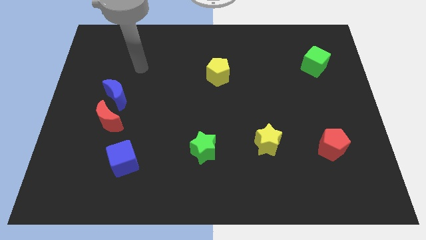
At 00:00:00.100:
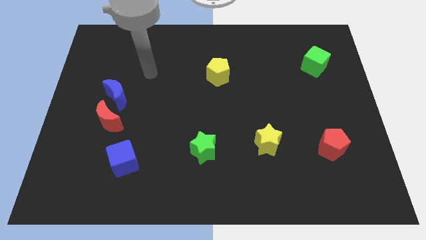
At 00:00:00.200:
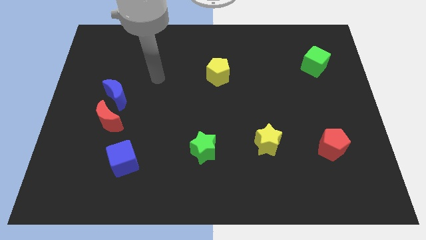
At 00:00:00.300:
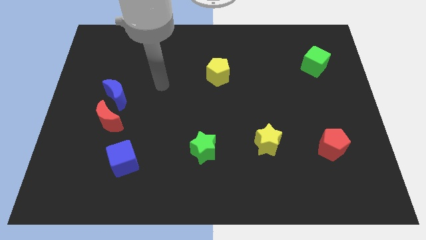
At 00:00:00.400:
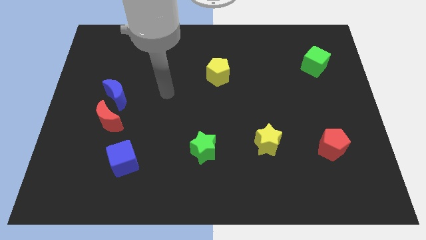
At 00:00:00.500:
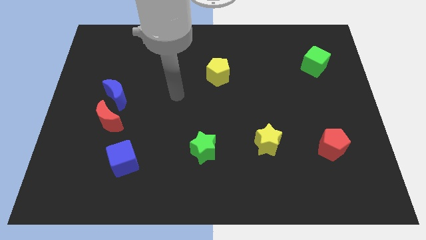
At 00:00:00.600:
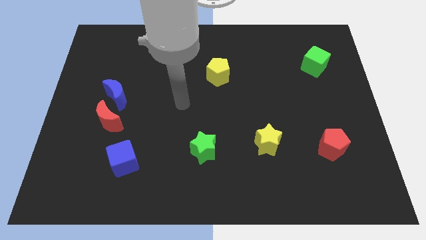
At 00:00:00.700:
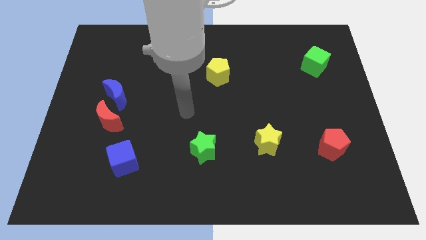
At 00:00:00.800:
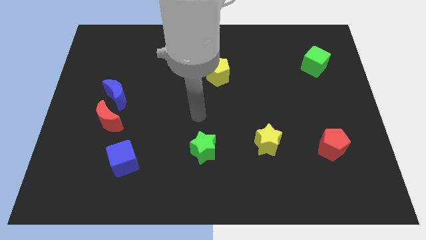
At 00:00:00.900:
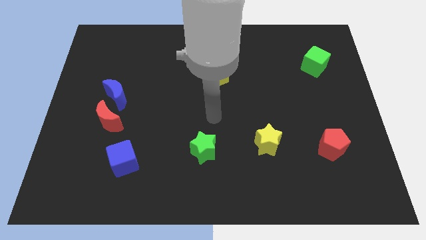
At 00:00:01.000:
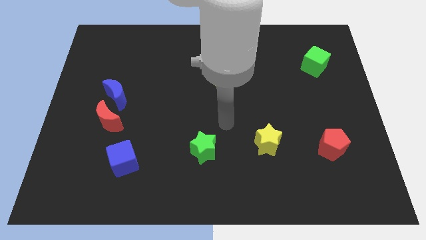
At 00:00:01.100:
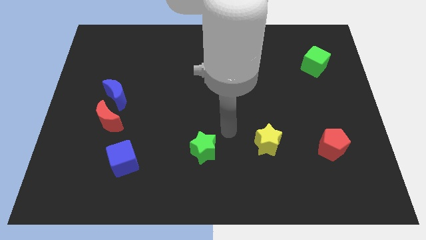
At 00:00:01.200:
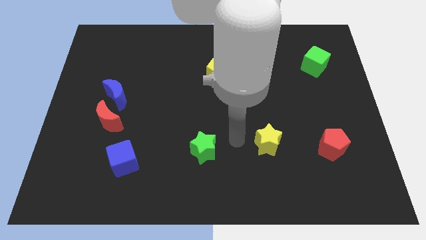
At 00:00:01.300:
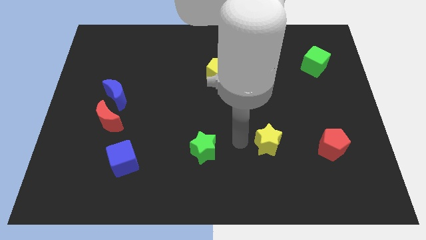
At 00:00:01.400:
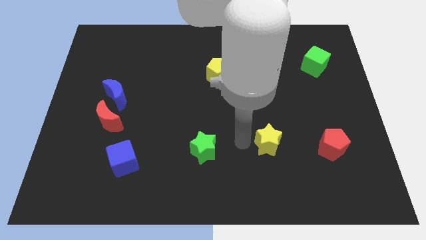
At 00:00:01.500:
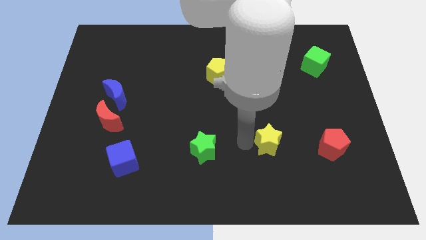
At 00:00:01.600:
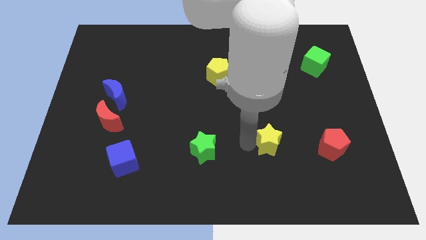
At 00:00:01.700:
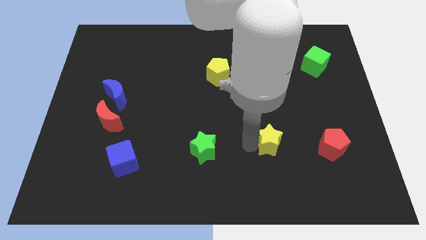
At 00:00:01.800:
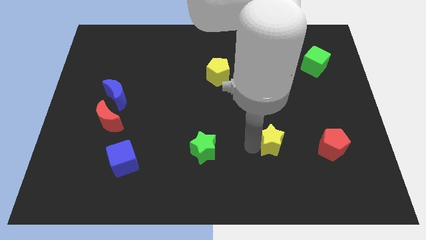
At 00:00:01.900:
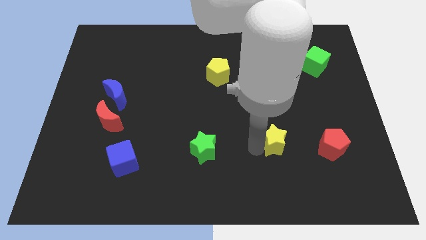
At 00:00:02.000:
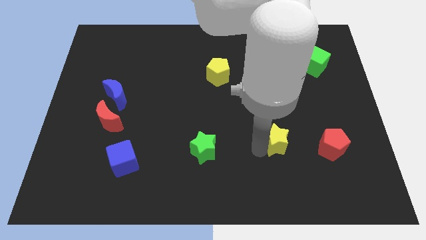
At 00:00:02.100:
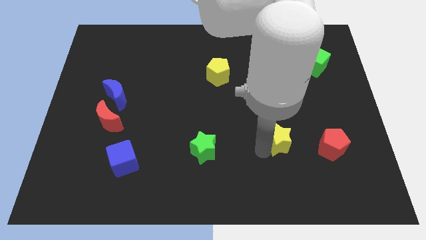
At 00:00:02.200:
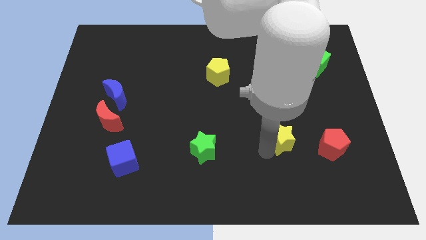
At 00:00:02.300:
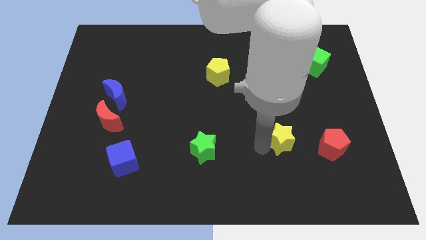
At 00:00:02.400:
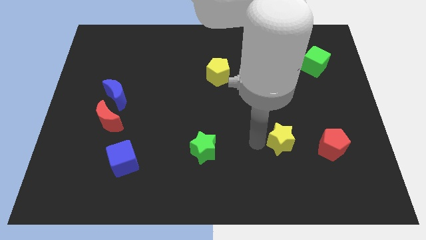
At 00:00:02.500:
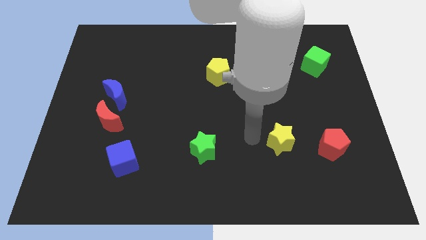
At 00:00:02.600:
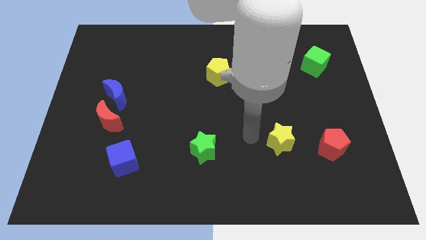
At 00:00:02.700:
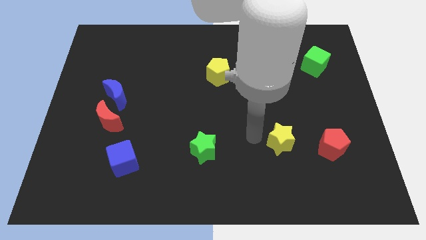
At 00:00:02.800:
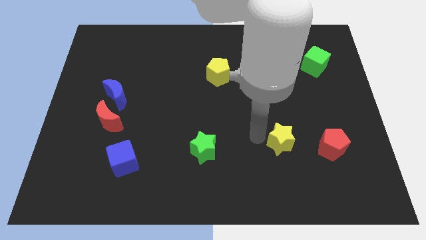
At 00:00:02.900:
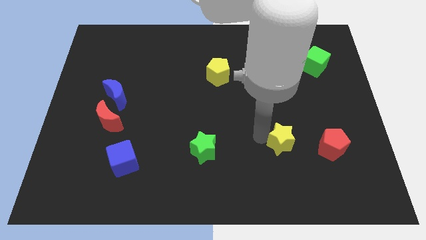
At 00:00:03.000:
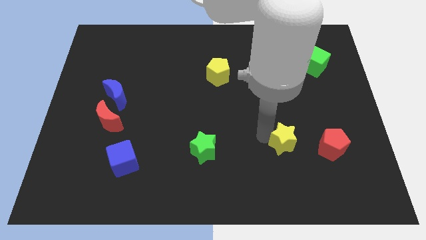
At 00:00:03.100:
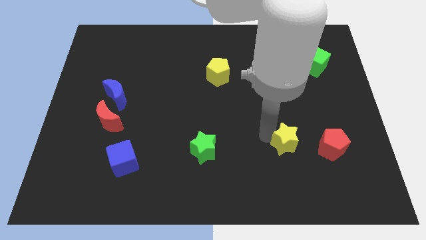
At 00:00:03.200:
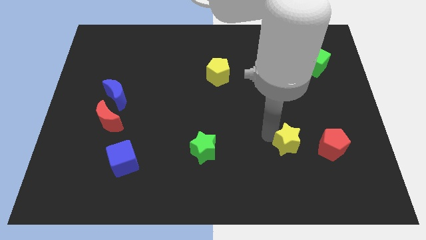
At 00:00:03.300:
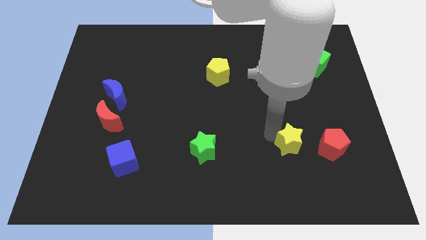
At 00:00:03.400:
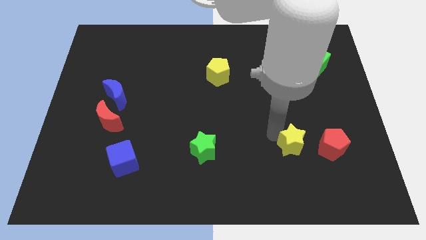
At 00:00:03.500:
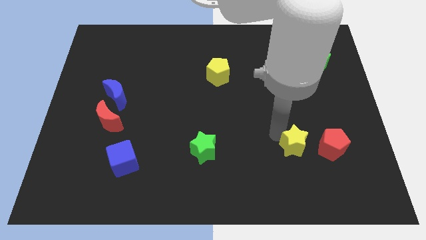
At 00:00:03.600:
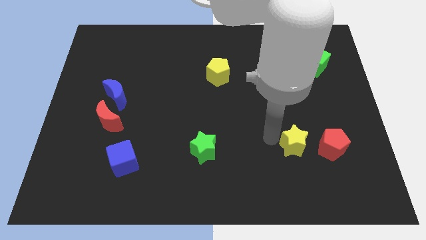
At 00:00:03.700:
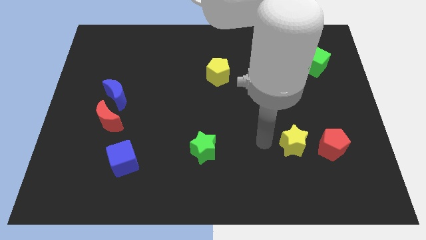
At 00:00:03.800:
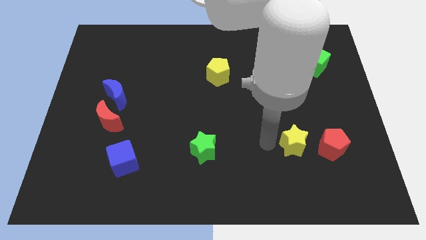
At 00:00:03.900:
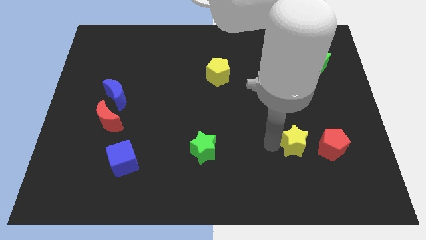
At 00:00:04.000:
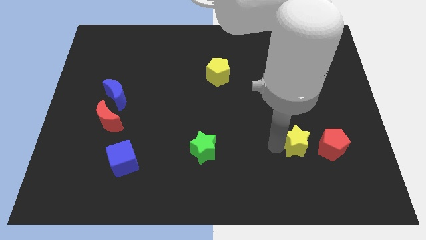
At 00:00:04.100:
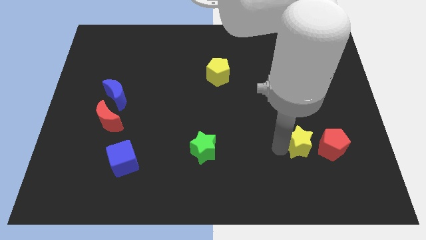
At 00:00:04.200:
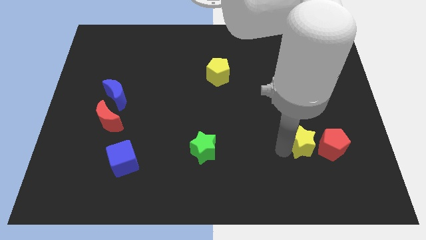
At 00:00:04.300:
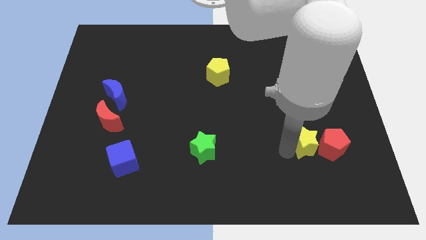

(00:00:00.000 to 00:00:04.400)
put the yellow star towards the red pentagon

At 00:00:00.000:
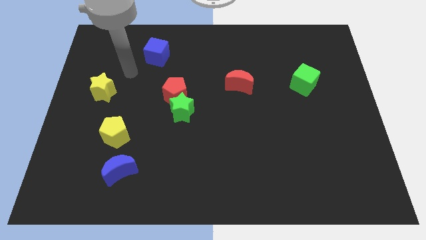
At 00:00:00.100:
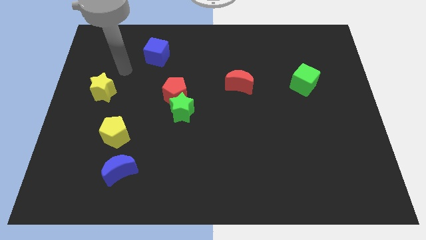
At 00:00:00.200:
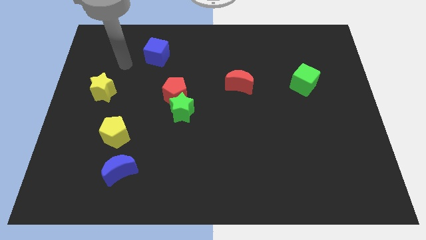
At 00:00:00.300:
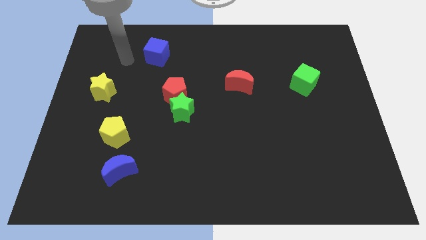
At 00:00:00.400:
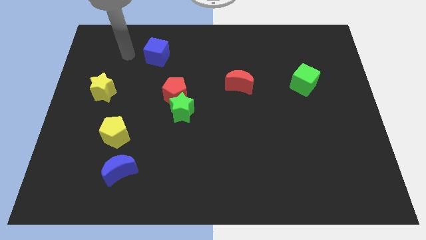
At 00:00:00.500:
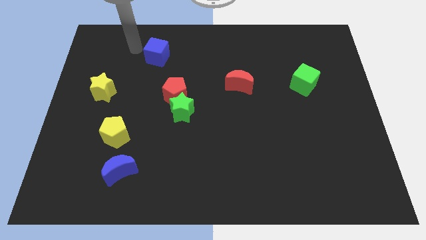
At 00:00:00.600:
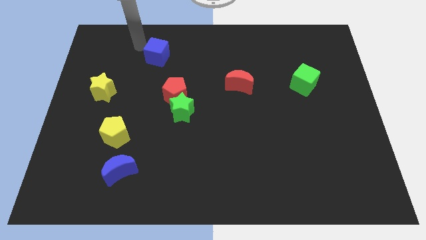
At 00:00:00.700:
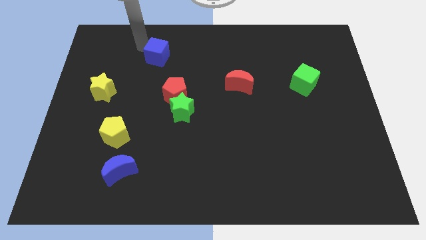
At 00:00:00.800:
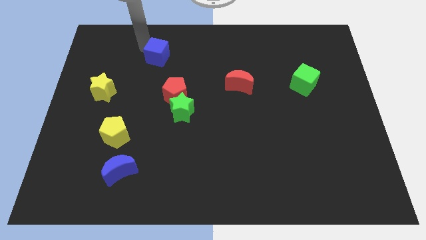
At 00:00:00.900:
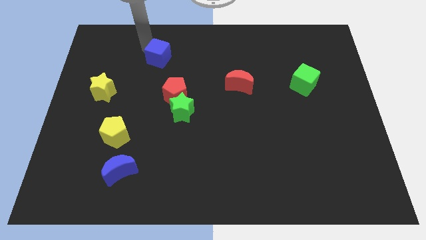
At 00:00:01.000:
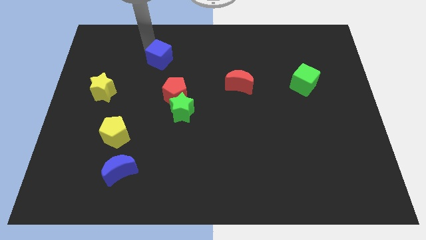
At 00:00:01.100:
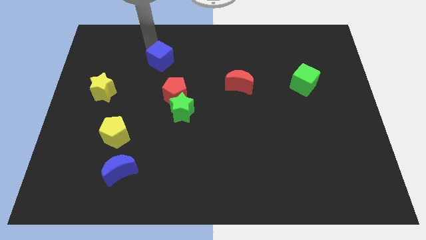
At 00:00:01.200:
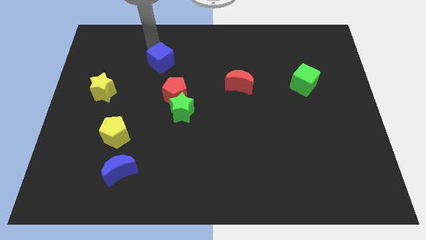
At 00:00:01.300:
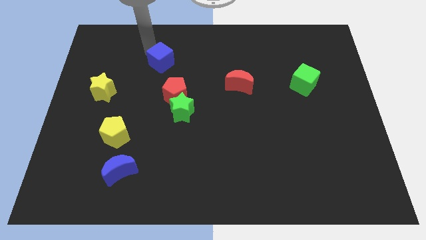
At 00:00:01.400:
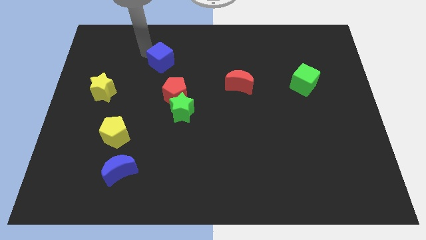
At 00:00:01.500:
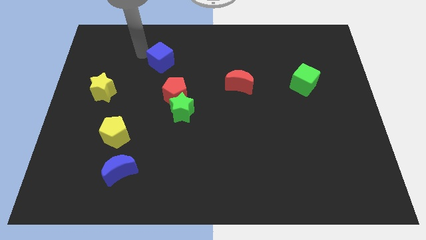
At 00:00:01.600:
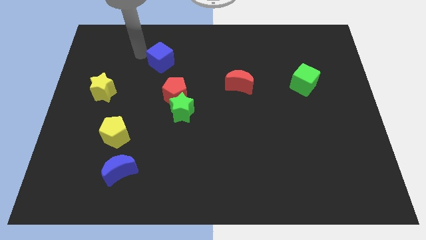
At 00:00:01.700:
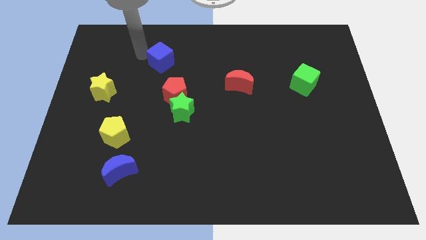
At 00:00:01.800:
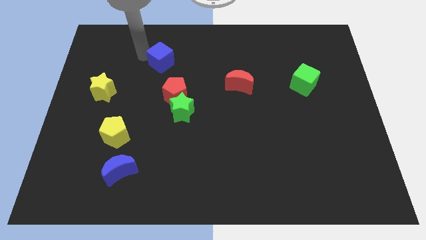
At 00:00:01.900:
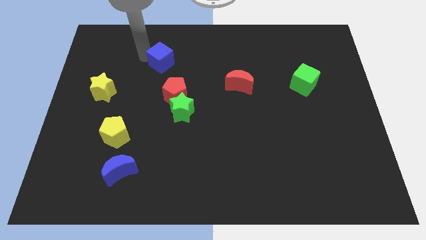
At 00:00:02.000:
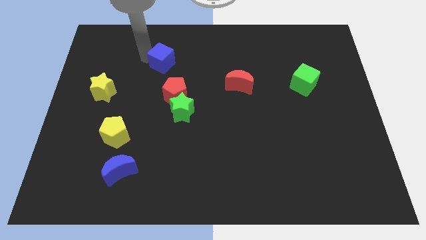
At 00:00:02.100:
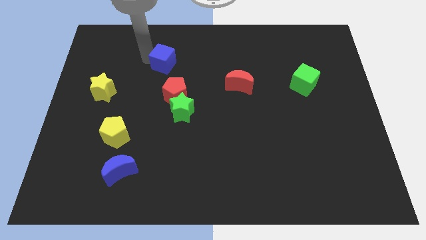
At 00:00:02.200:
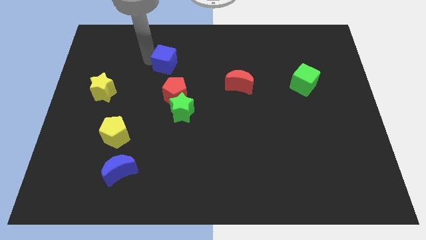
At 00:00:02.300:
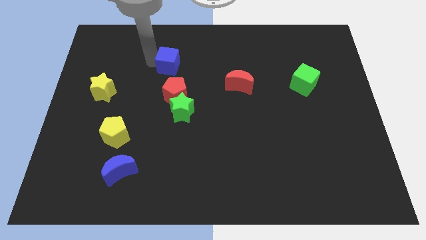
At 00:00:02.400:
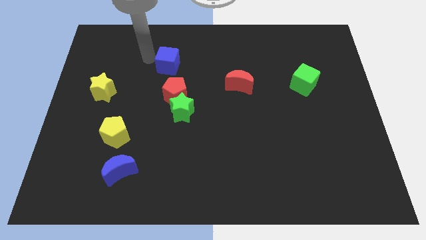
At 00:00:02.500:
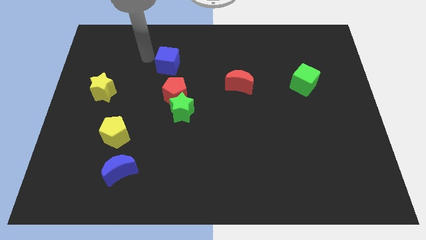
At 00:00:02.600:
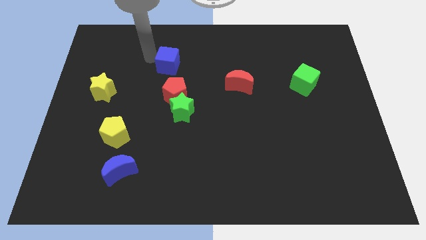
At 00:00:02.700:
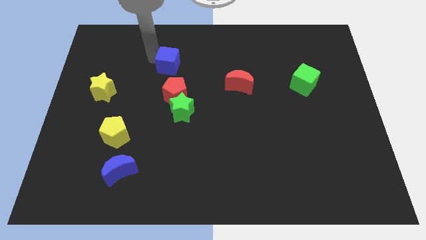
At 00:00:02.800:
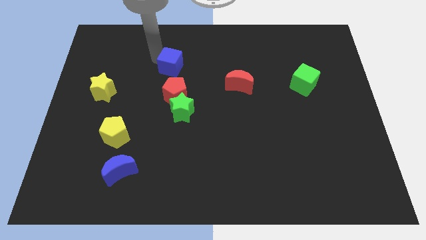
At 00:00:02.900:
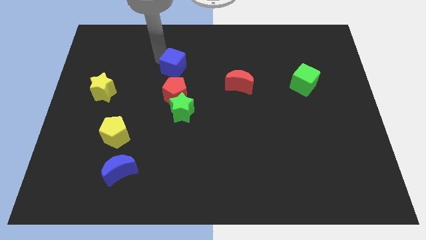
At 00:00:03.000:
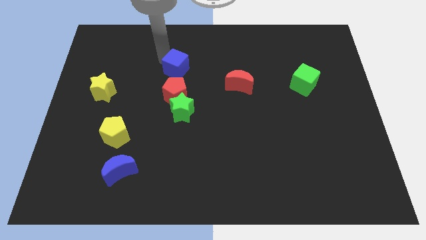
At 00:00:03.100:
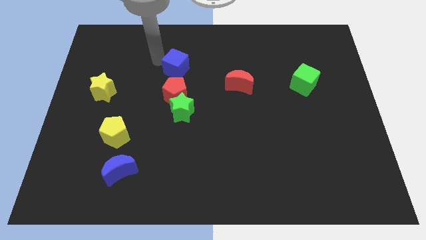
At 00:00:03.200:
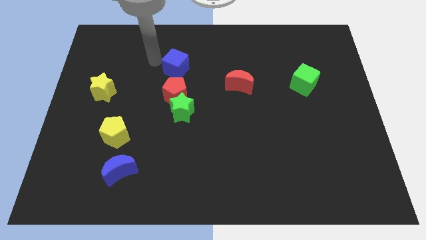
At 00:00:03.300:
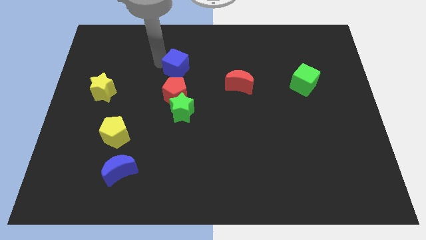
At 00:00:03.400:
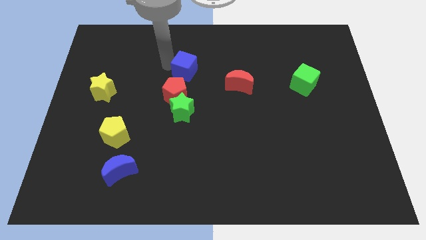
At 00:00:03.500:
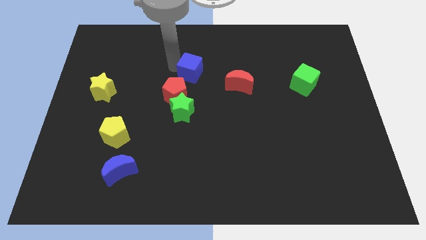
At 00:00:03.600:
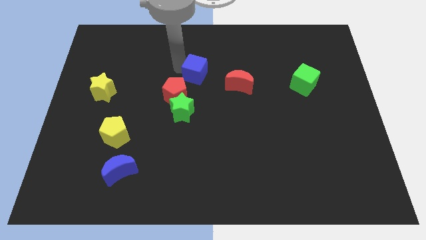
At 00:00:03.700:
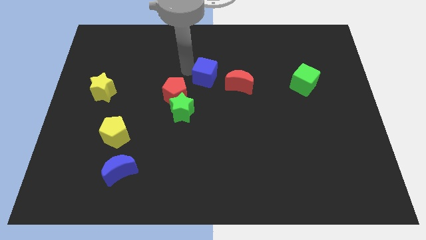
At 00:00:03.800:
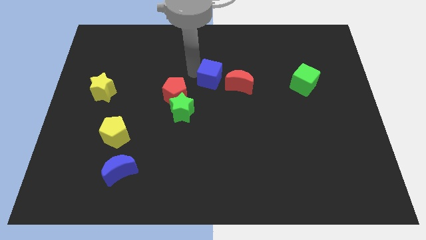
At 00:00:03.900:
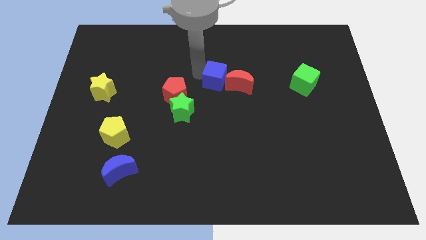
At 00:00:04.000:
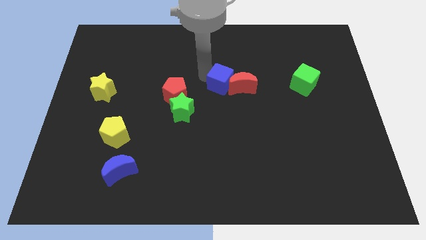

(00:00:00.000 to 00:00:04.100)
move the blue cube to the red moon
